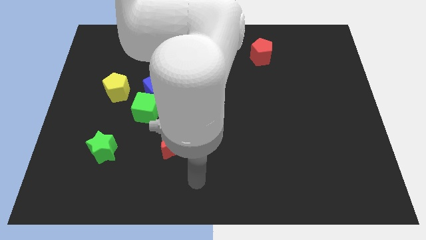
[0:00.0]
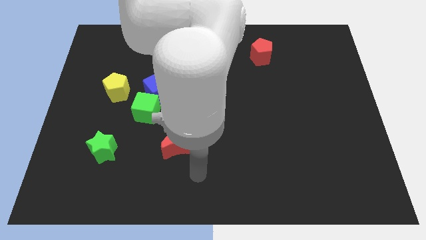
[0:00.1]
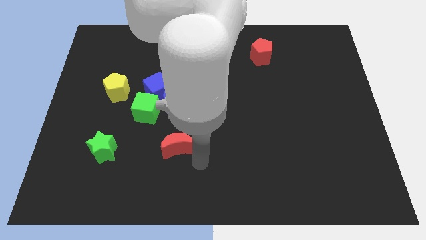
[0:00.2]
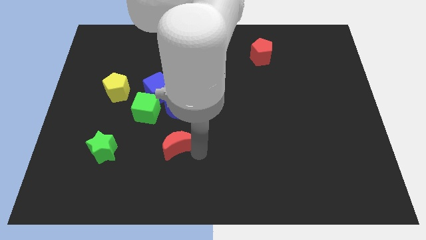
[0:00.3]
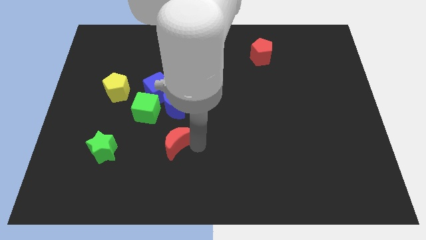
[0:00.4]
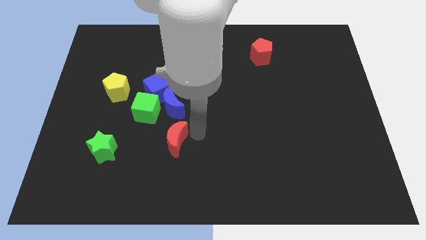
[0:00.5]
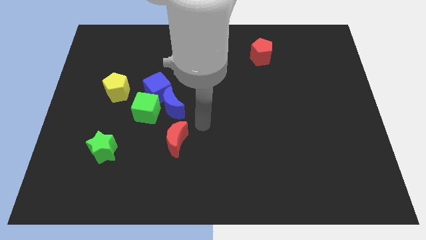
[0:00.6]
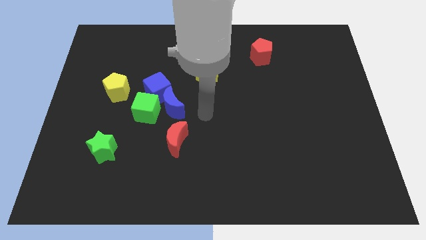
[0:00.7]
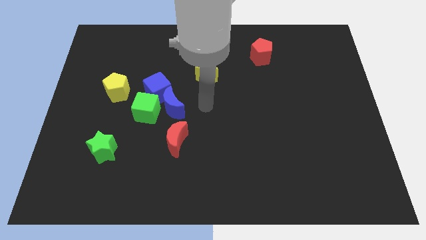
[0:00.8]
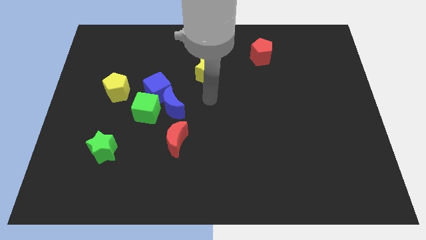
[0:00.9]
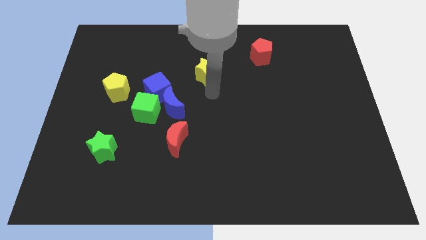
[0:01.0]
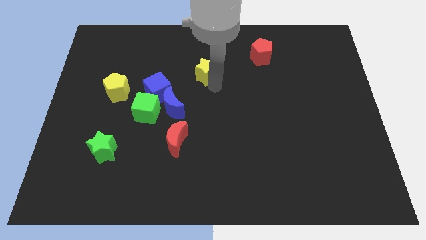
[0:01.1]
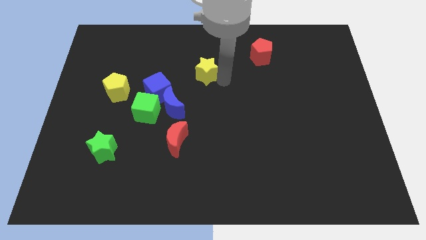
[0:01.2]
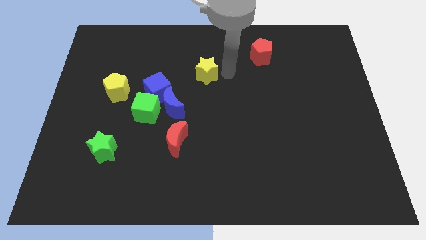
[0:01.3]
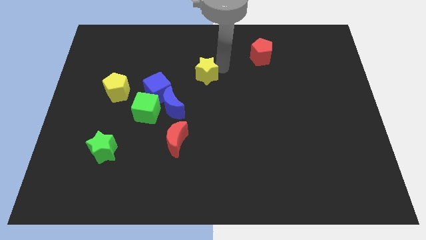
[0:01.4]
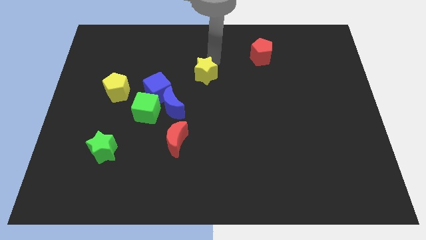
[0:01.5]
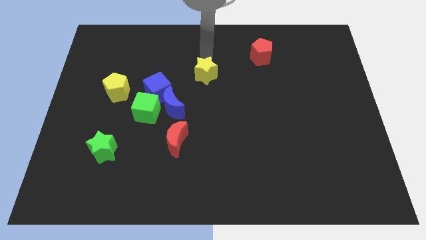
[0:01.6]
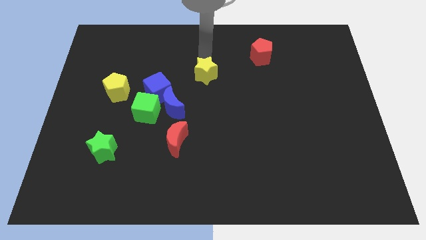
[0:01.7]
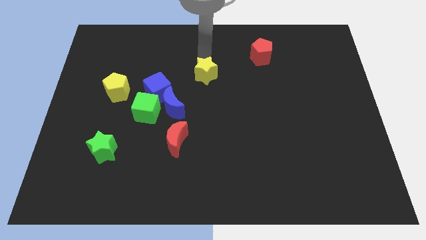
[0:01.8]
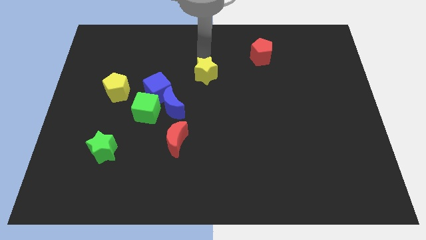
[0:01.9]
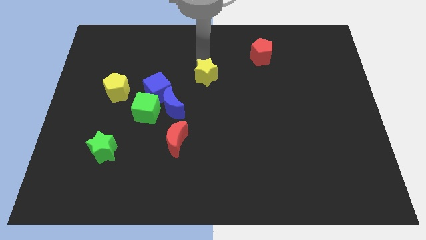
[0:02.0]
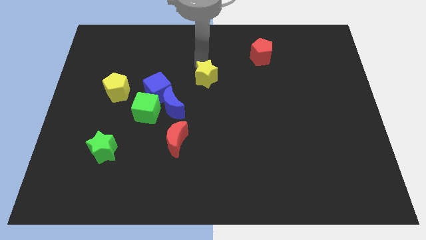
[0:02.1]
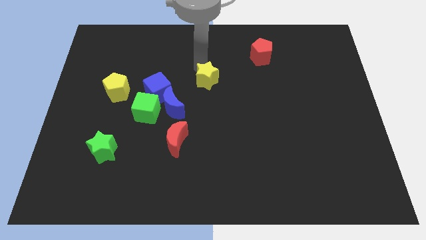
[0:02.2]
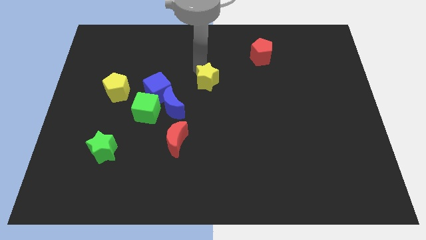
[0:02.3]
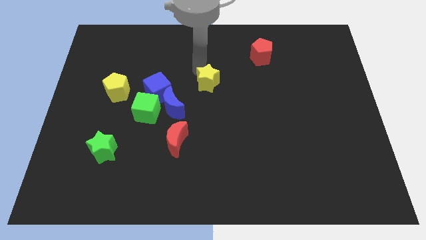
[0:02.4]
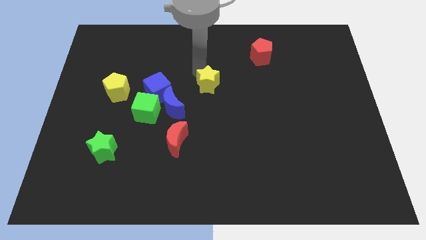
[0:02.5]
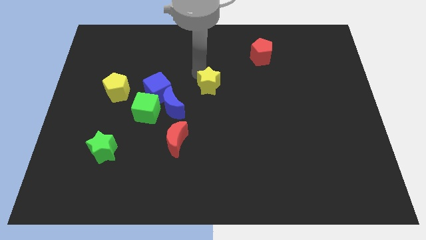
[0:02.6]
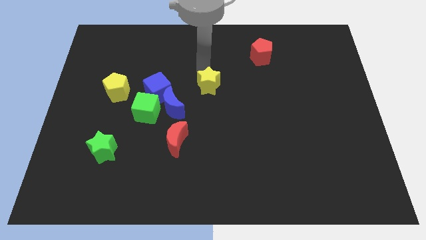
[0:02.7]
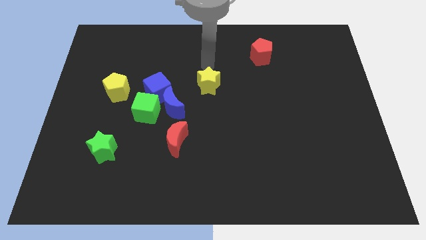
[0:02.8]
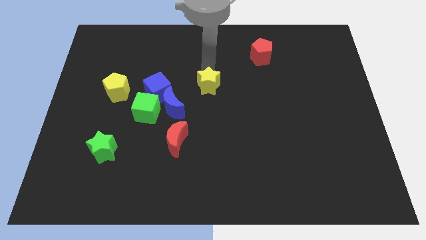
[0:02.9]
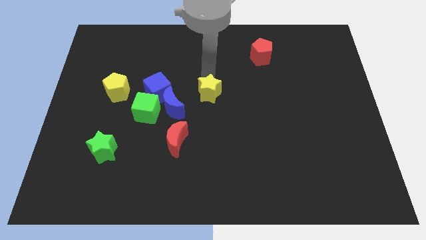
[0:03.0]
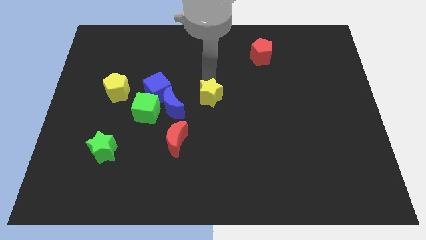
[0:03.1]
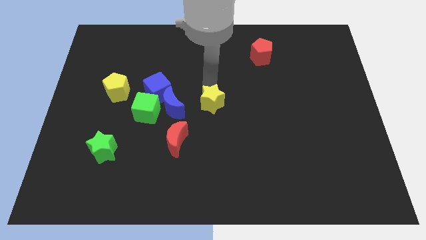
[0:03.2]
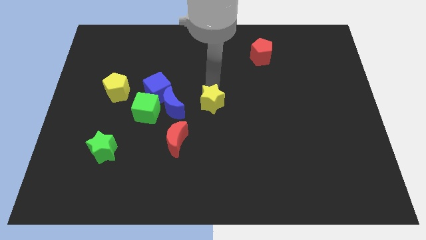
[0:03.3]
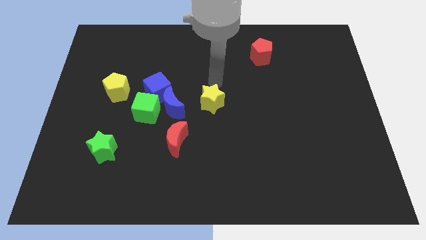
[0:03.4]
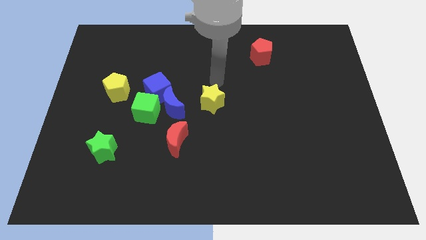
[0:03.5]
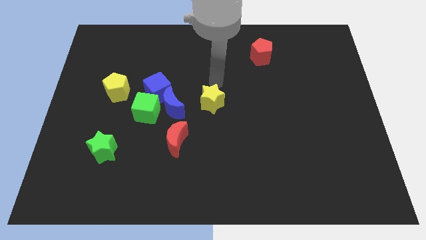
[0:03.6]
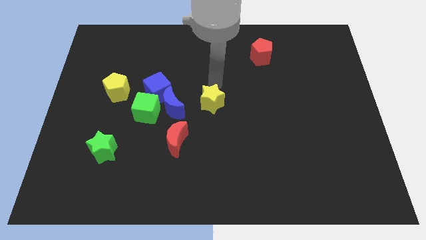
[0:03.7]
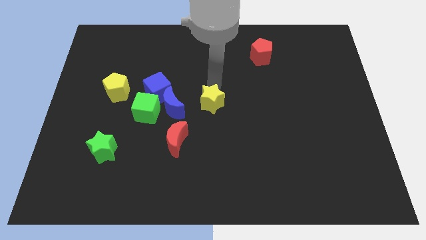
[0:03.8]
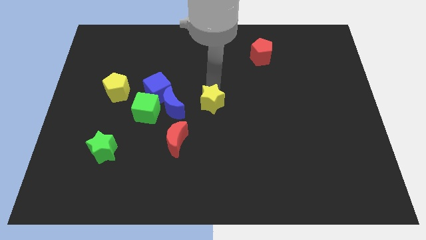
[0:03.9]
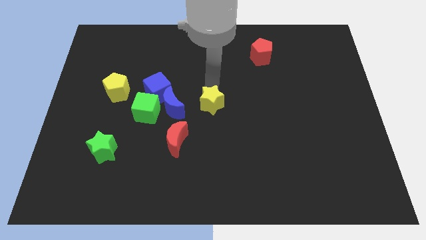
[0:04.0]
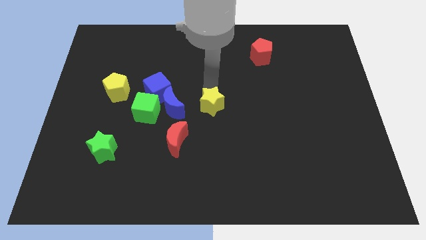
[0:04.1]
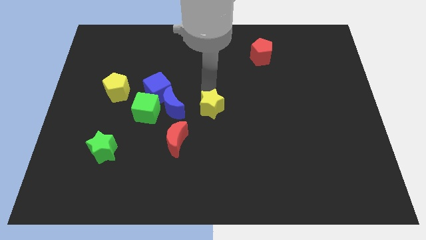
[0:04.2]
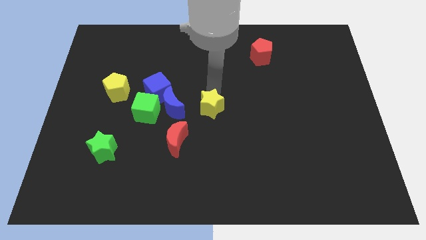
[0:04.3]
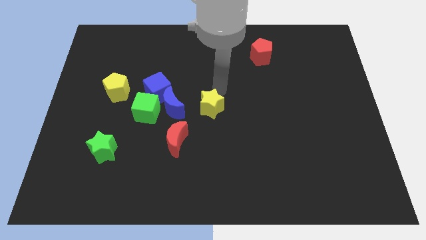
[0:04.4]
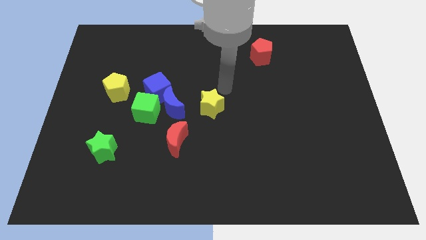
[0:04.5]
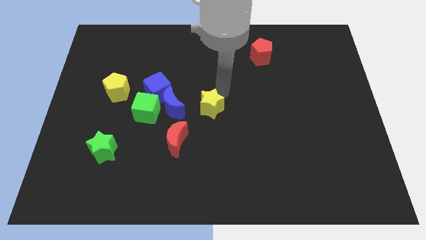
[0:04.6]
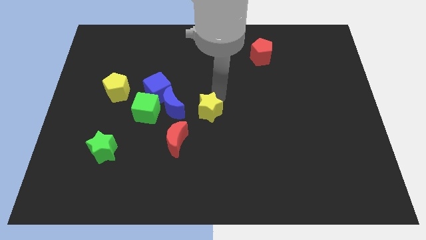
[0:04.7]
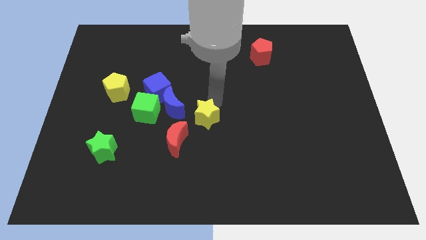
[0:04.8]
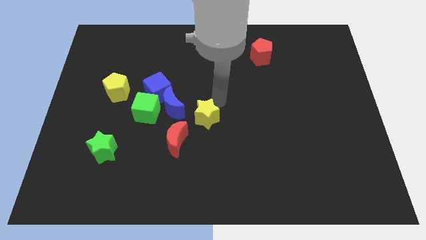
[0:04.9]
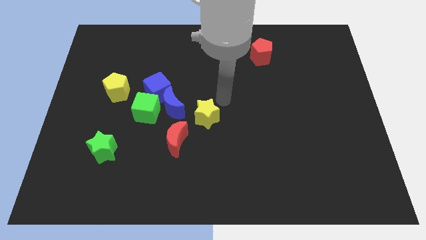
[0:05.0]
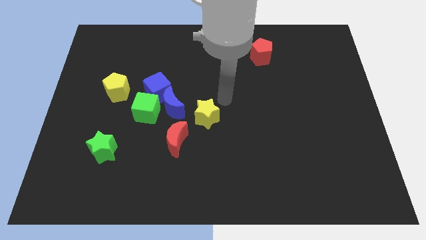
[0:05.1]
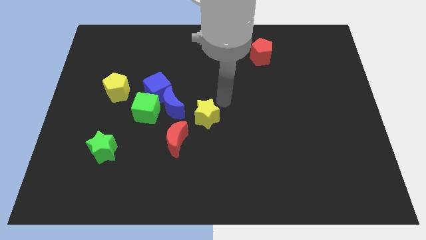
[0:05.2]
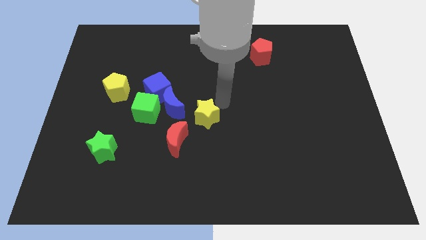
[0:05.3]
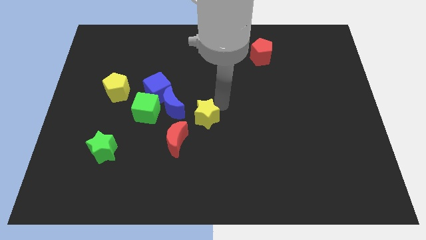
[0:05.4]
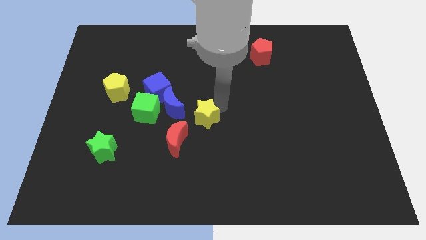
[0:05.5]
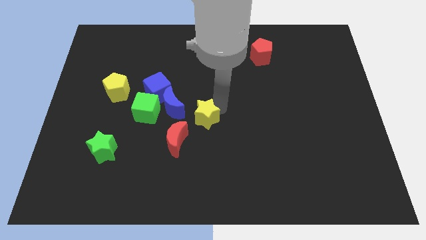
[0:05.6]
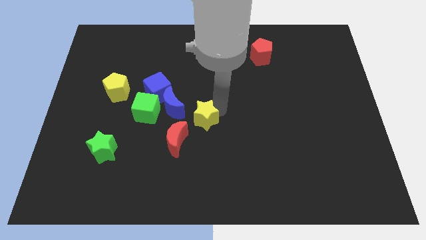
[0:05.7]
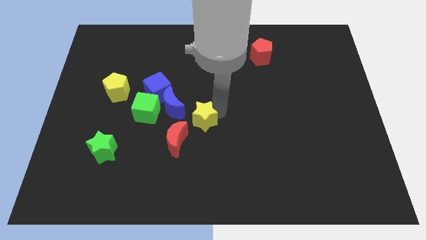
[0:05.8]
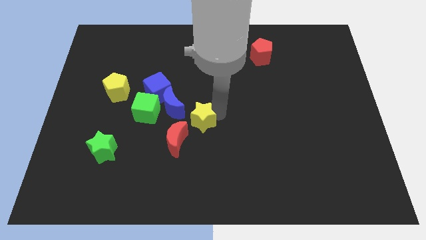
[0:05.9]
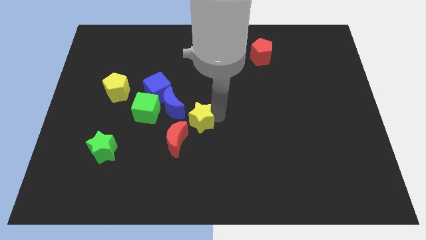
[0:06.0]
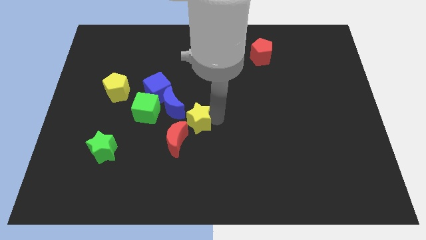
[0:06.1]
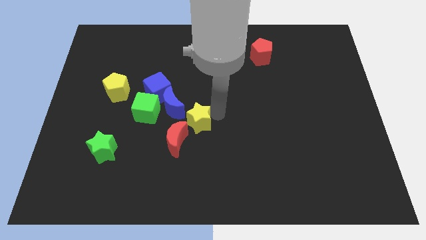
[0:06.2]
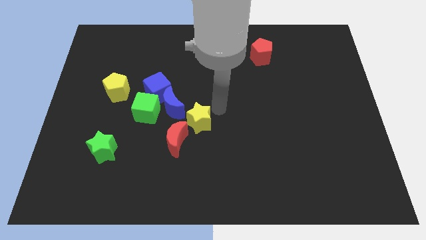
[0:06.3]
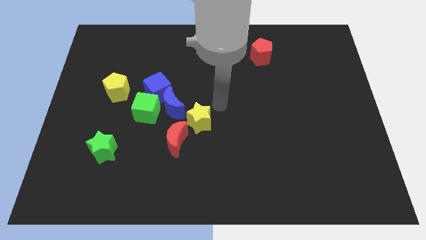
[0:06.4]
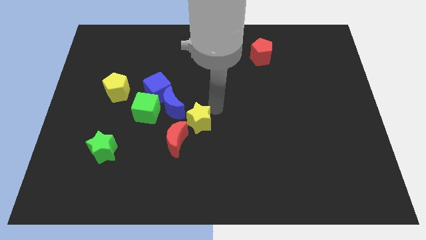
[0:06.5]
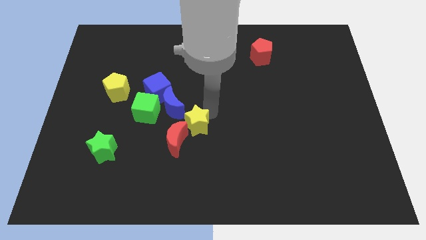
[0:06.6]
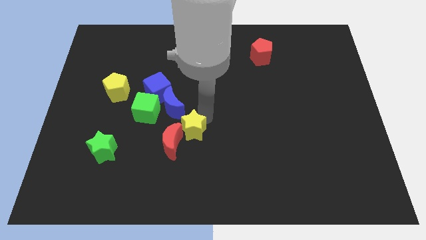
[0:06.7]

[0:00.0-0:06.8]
slide the yellow star towards the red moon
